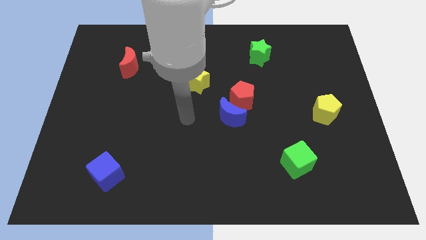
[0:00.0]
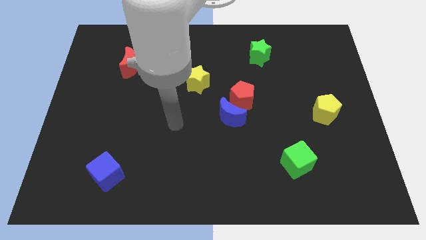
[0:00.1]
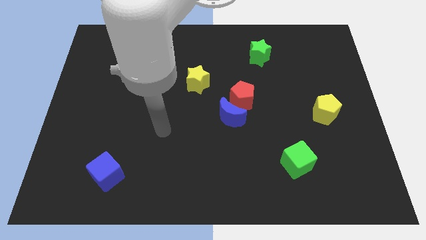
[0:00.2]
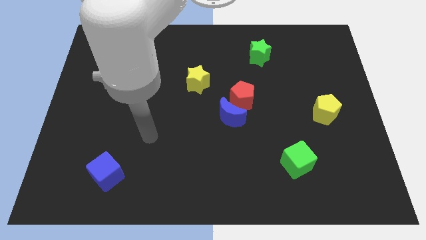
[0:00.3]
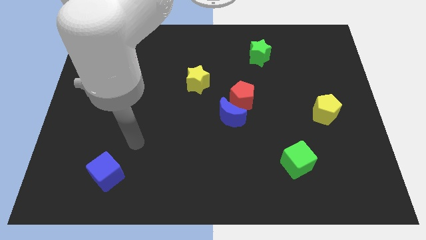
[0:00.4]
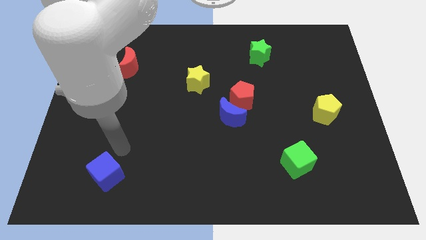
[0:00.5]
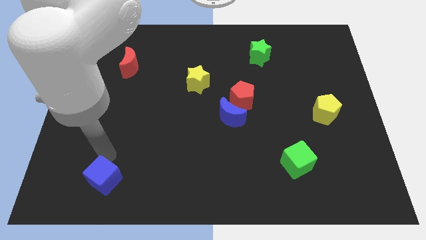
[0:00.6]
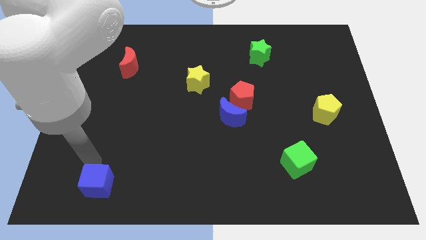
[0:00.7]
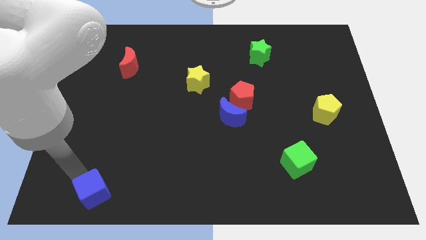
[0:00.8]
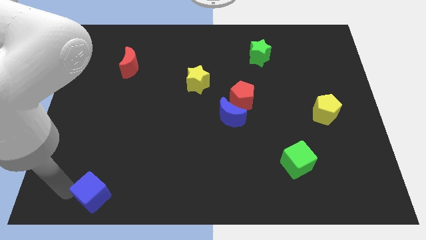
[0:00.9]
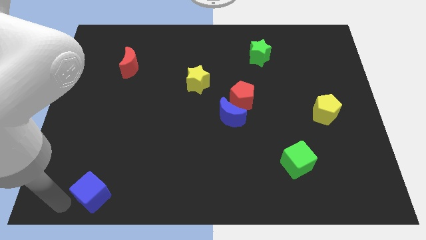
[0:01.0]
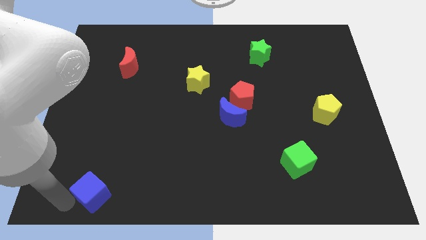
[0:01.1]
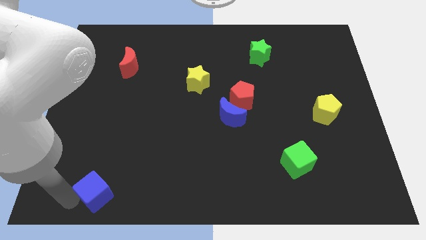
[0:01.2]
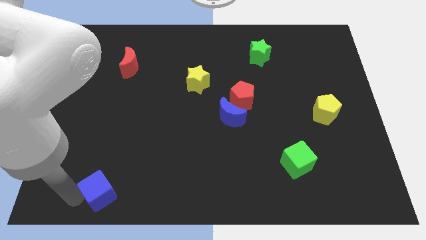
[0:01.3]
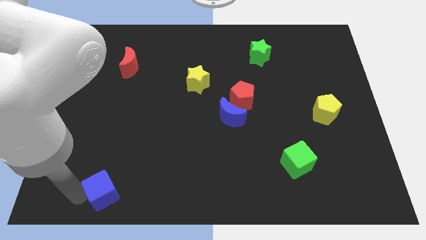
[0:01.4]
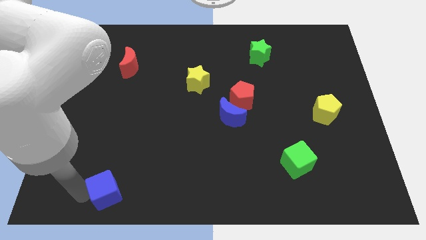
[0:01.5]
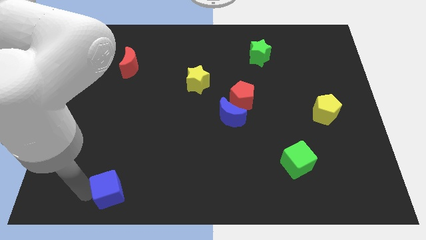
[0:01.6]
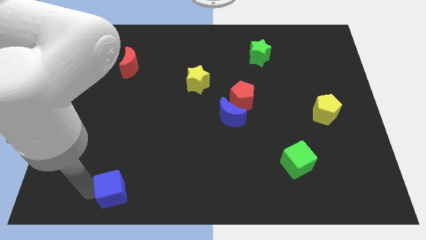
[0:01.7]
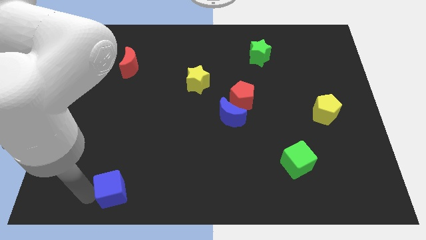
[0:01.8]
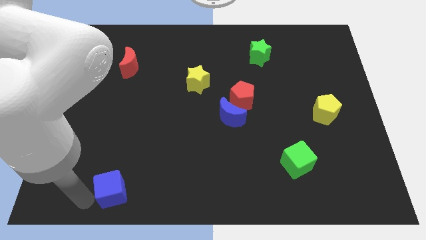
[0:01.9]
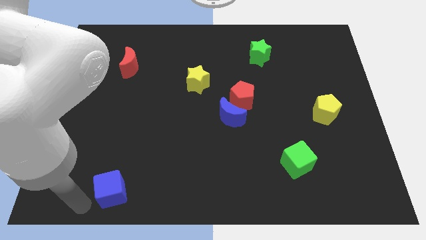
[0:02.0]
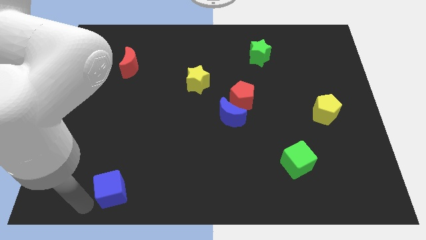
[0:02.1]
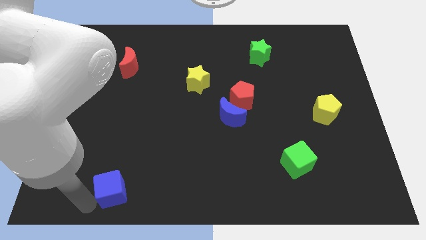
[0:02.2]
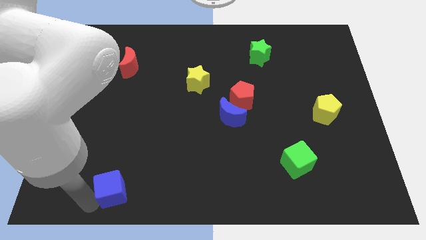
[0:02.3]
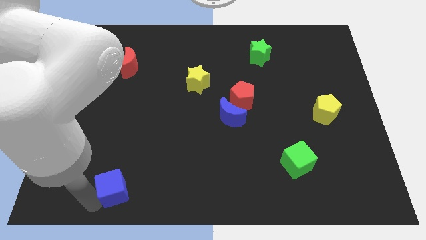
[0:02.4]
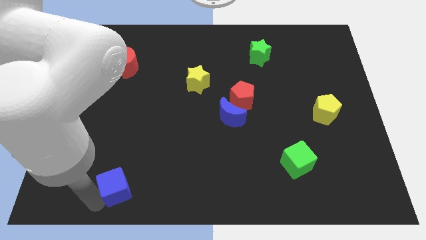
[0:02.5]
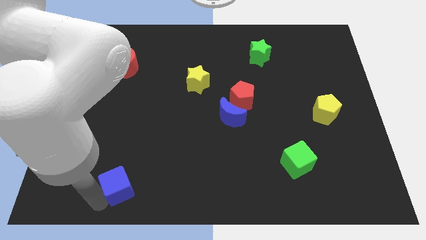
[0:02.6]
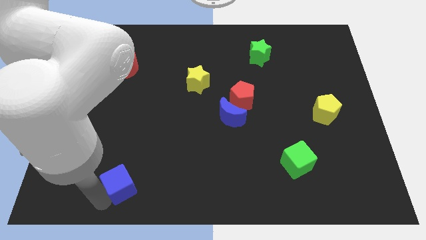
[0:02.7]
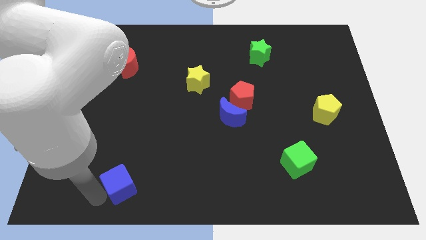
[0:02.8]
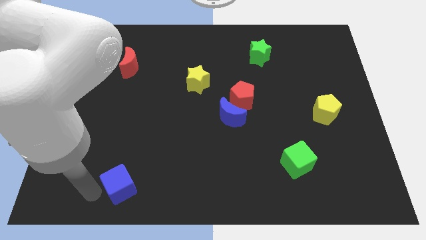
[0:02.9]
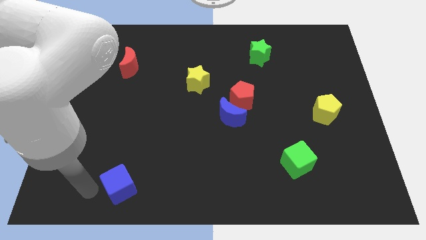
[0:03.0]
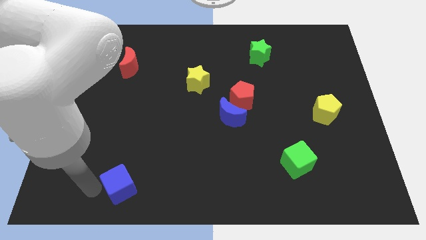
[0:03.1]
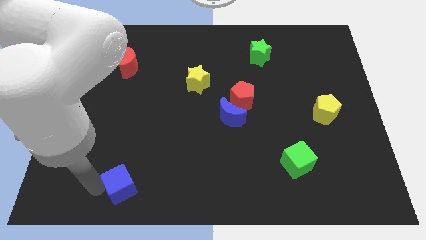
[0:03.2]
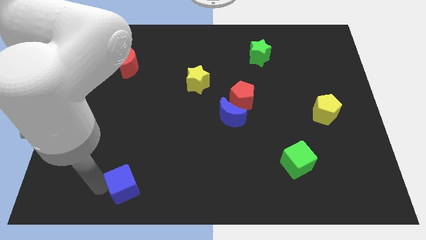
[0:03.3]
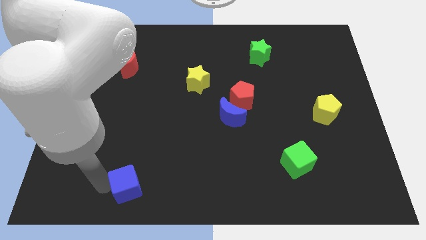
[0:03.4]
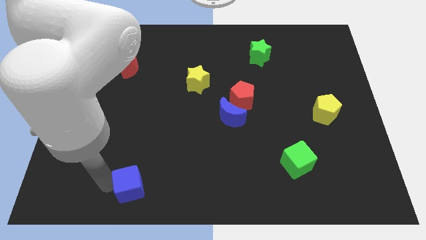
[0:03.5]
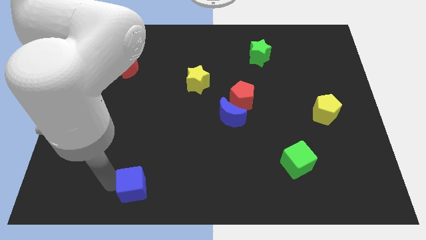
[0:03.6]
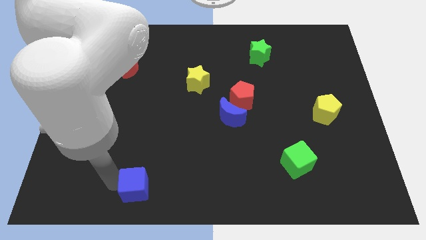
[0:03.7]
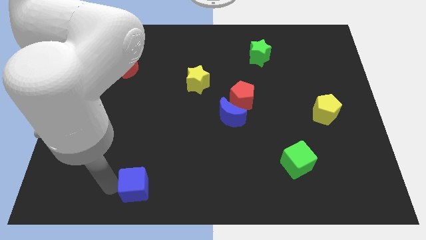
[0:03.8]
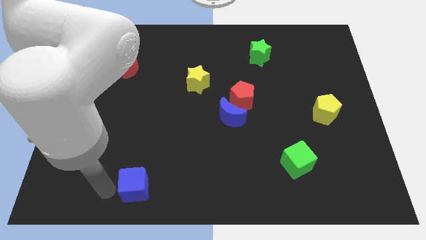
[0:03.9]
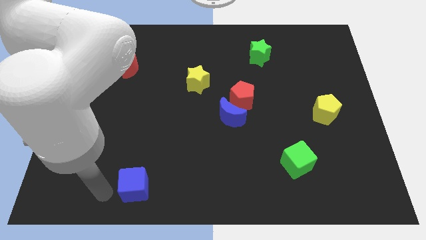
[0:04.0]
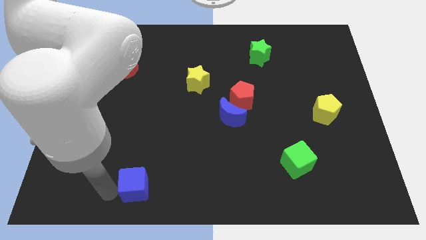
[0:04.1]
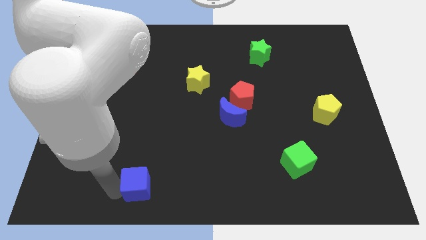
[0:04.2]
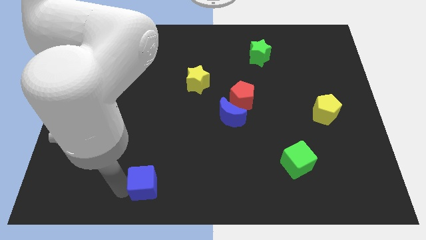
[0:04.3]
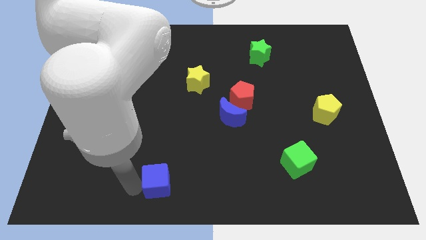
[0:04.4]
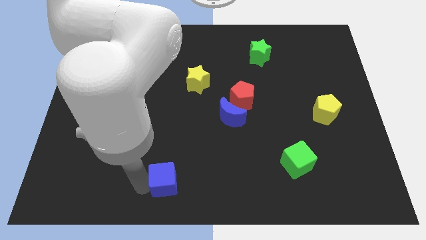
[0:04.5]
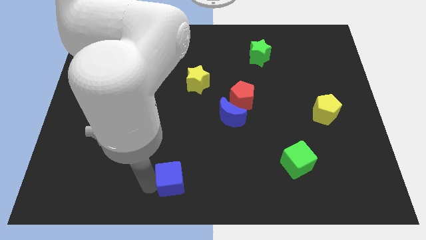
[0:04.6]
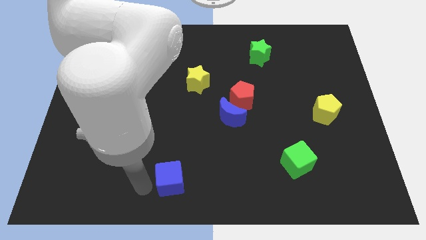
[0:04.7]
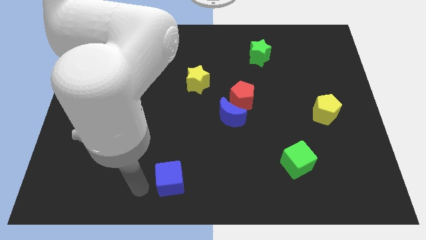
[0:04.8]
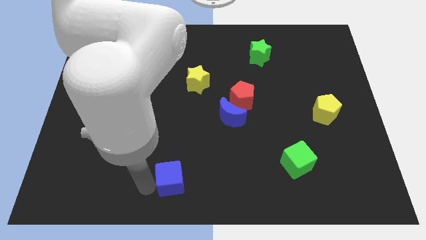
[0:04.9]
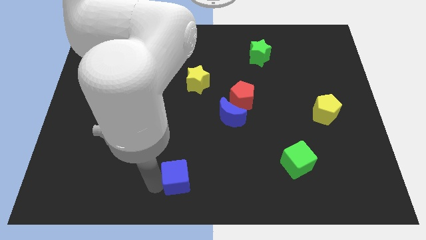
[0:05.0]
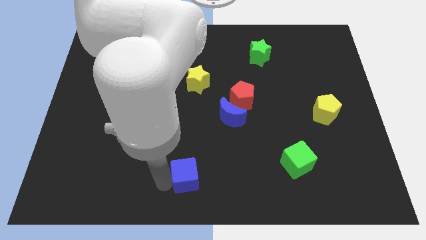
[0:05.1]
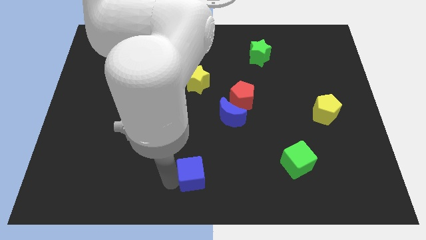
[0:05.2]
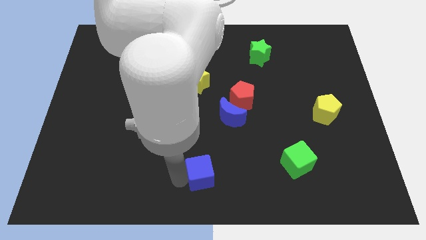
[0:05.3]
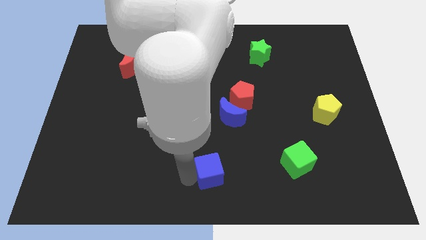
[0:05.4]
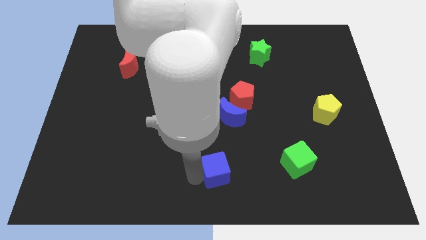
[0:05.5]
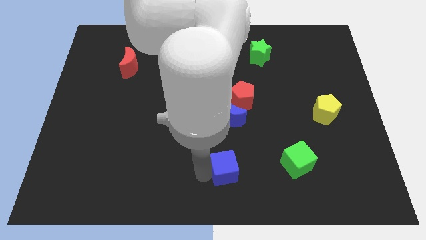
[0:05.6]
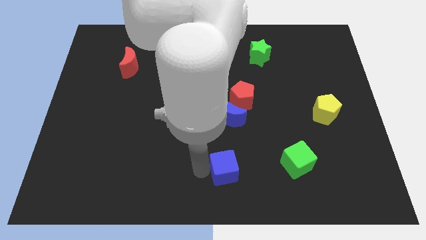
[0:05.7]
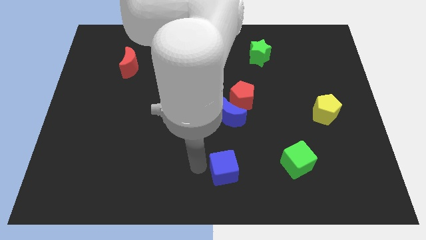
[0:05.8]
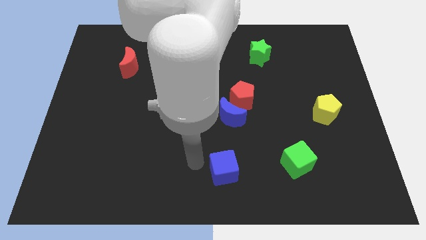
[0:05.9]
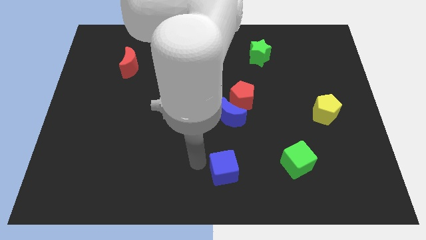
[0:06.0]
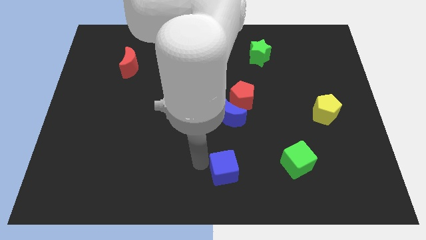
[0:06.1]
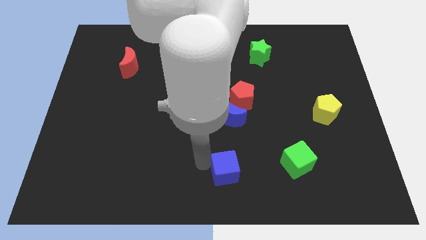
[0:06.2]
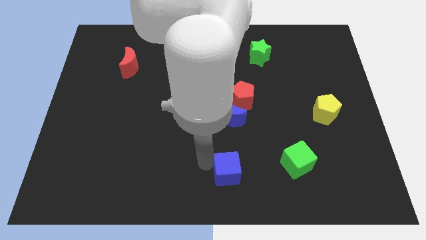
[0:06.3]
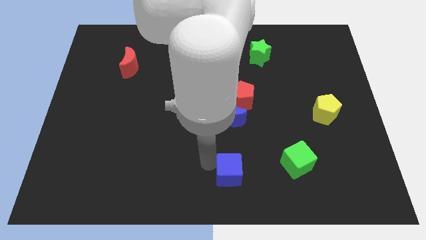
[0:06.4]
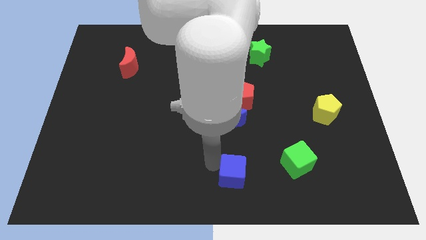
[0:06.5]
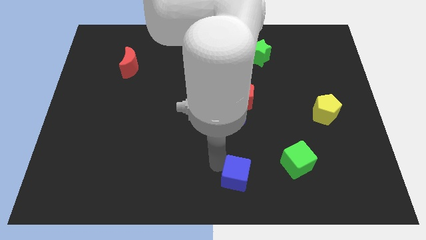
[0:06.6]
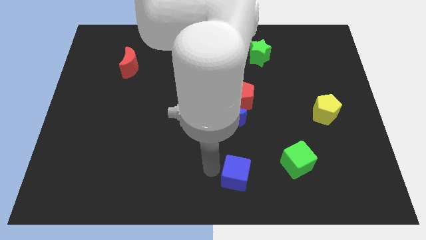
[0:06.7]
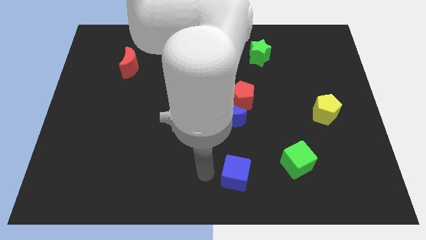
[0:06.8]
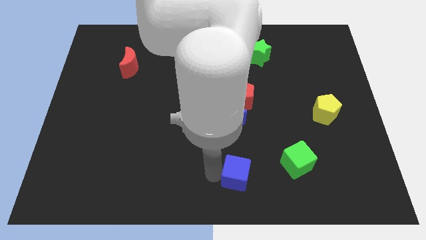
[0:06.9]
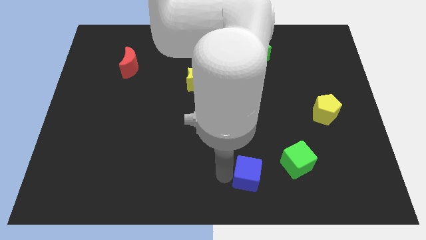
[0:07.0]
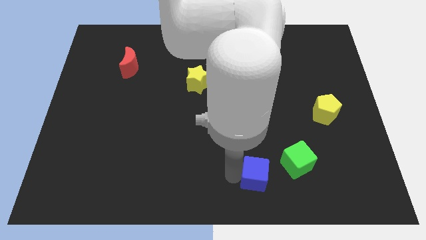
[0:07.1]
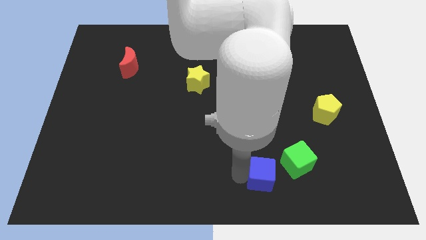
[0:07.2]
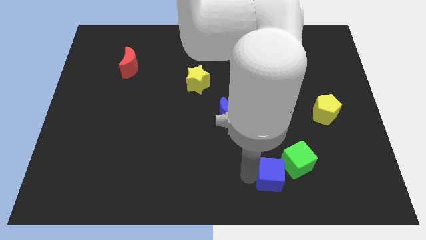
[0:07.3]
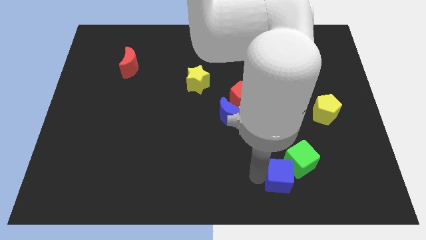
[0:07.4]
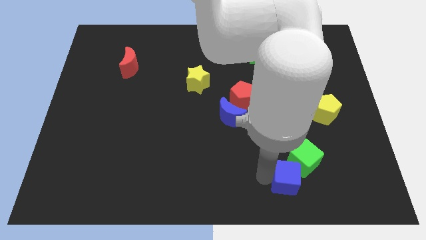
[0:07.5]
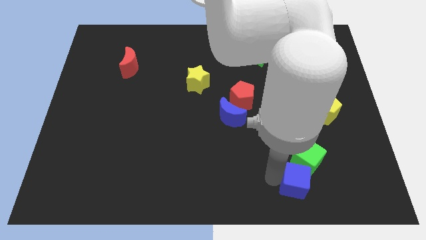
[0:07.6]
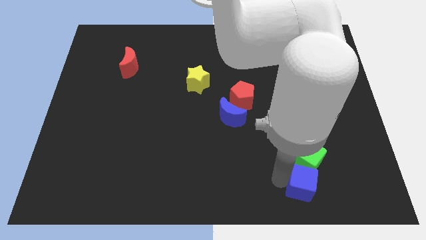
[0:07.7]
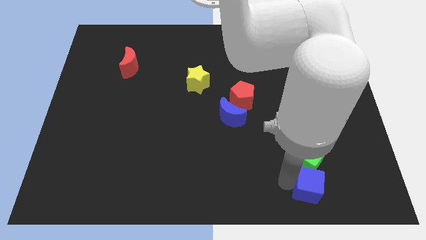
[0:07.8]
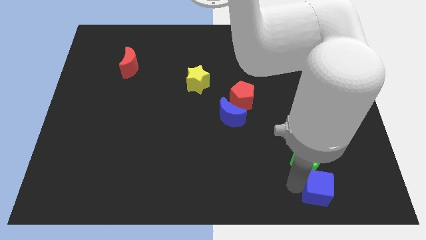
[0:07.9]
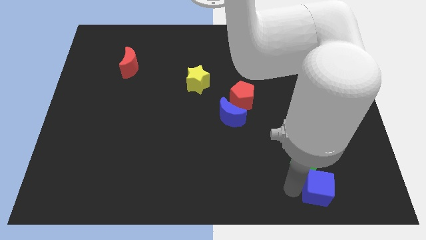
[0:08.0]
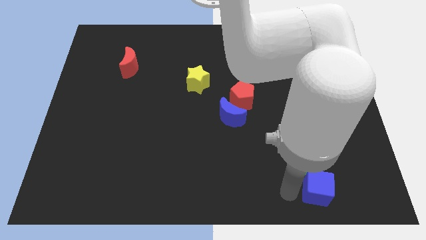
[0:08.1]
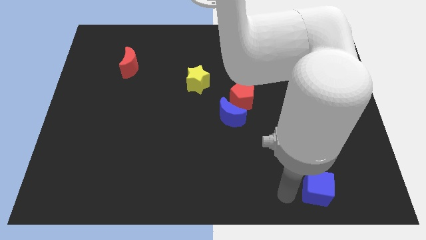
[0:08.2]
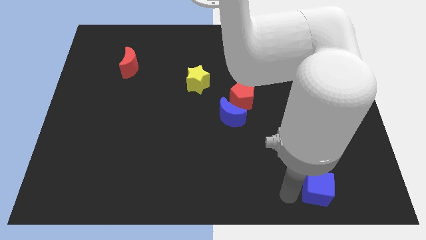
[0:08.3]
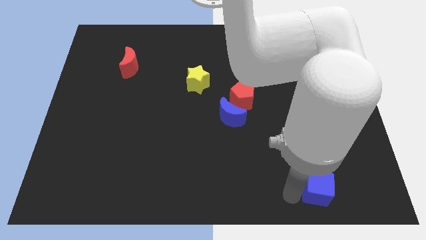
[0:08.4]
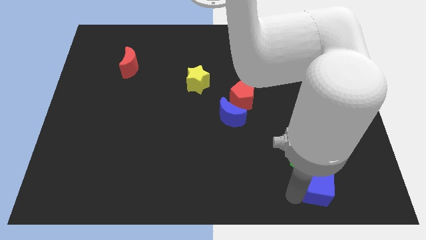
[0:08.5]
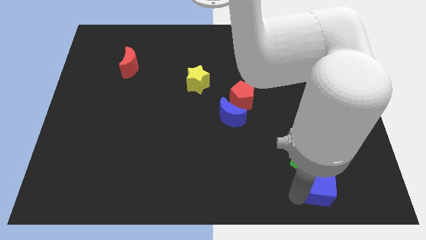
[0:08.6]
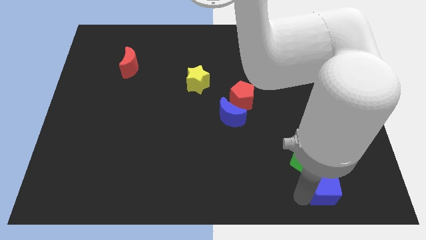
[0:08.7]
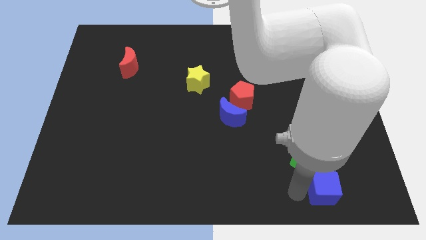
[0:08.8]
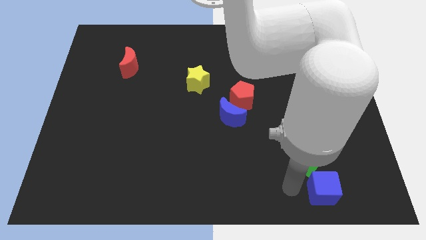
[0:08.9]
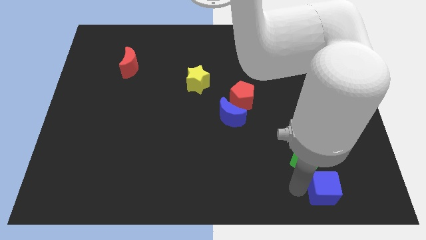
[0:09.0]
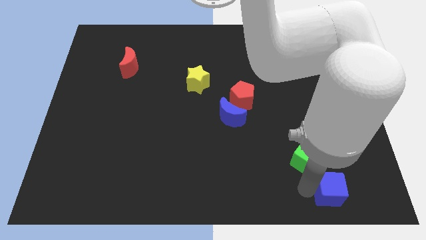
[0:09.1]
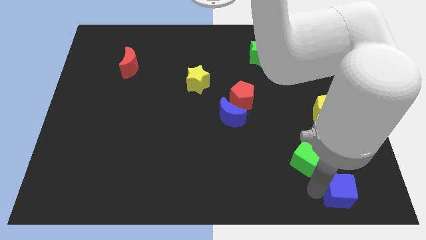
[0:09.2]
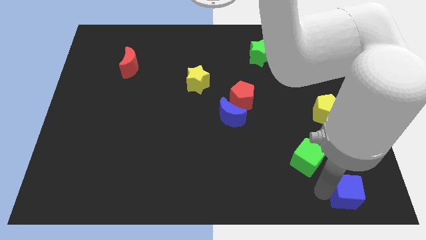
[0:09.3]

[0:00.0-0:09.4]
move the blue cube to the bottom right of the board
